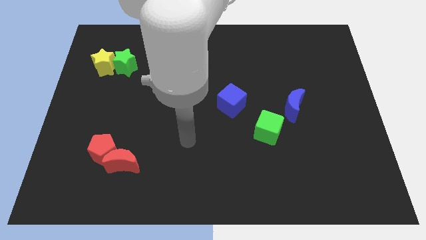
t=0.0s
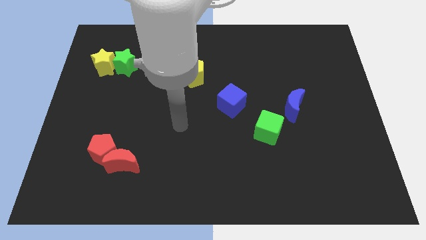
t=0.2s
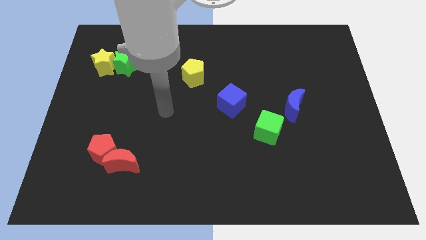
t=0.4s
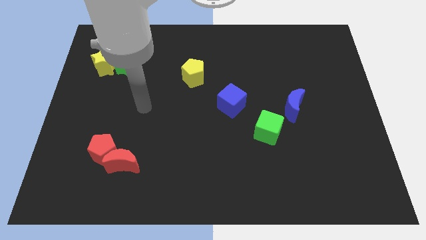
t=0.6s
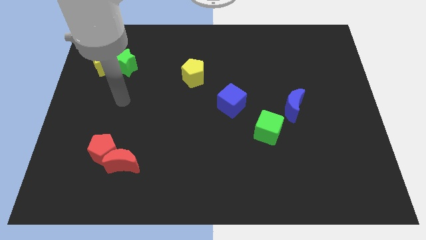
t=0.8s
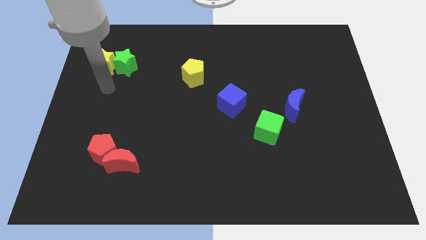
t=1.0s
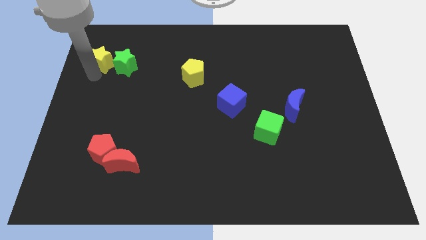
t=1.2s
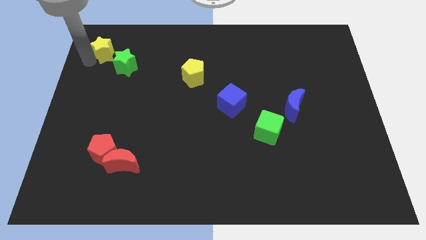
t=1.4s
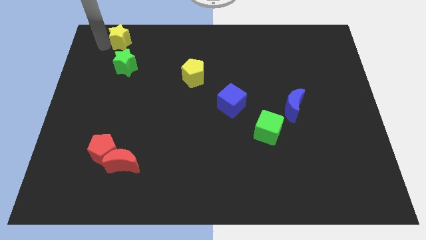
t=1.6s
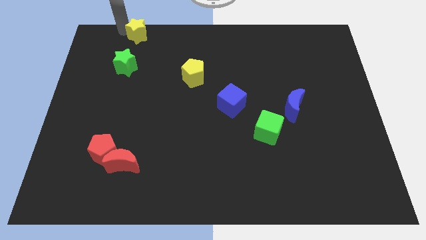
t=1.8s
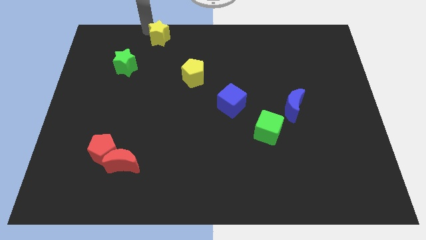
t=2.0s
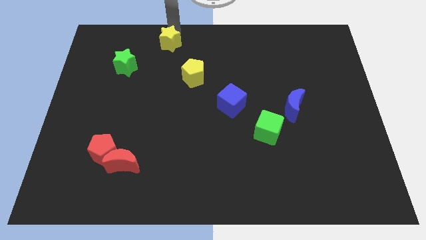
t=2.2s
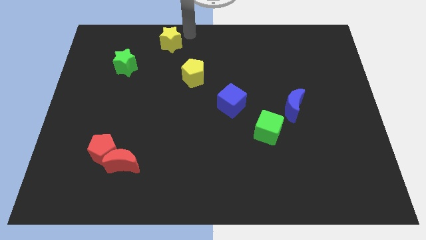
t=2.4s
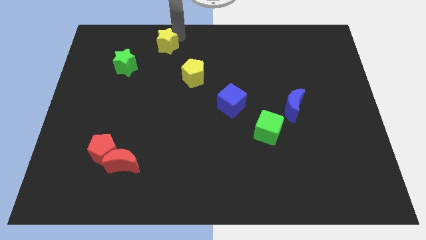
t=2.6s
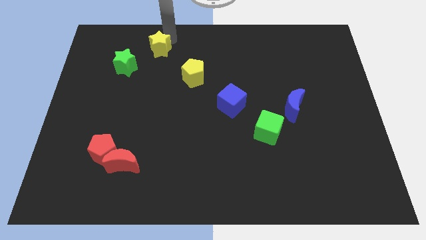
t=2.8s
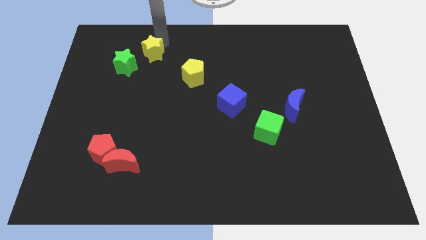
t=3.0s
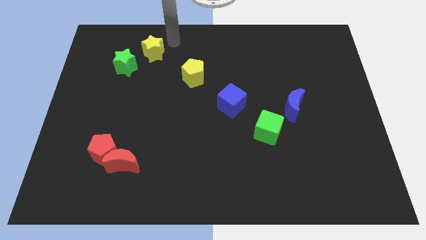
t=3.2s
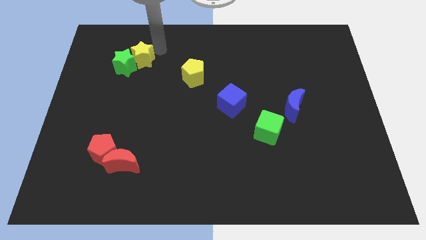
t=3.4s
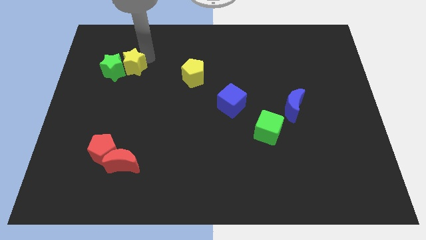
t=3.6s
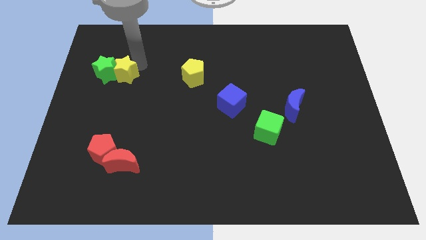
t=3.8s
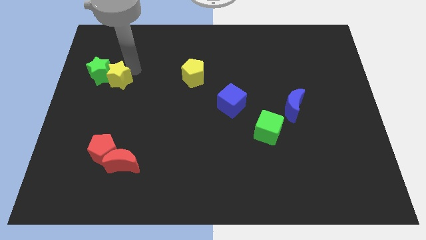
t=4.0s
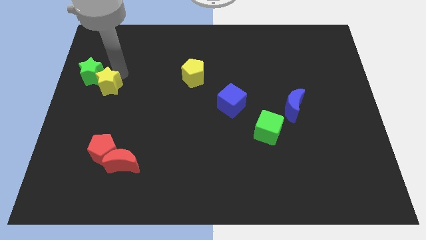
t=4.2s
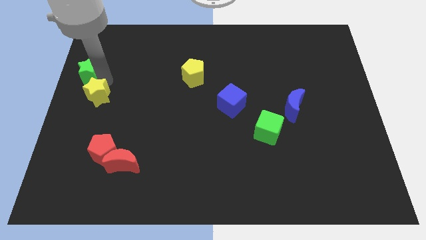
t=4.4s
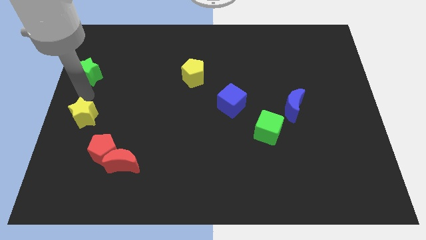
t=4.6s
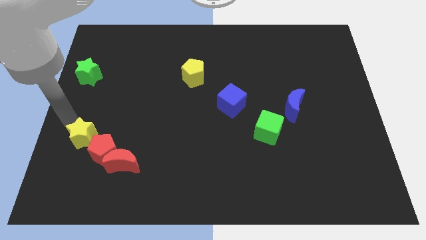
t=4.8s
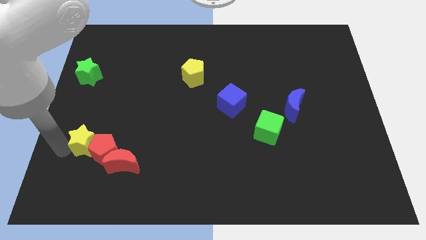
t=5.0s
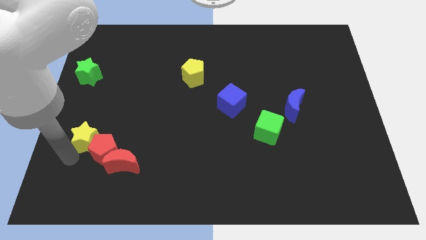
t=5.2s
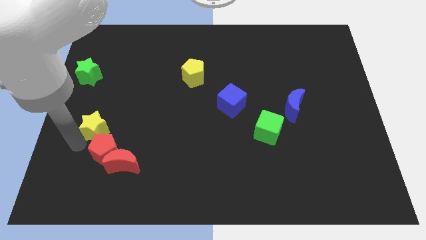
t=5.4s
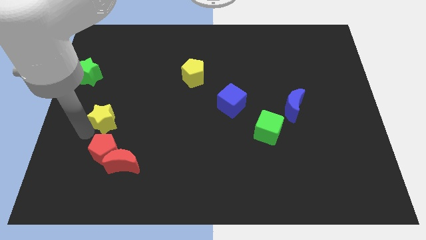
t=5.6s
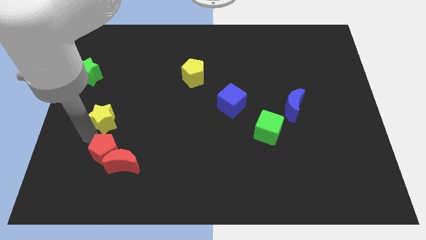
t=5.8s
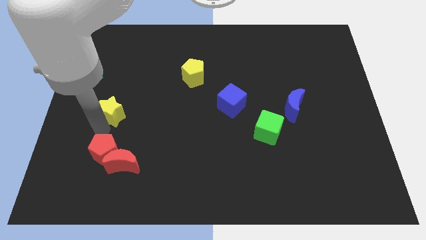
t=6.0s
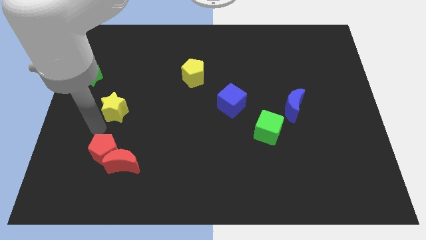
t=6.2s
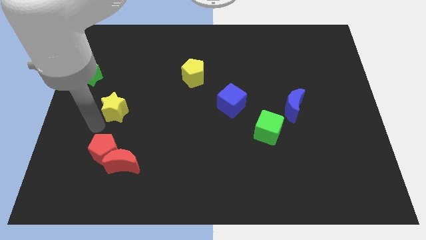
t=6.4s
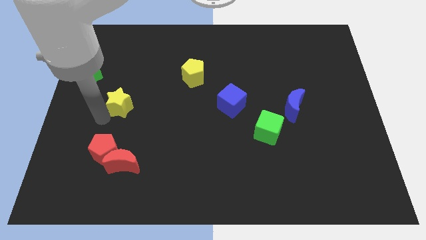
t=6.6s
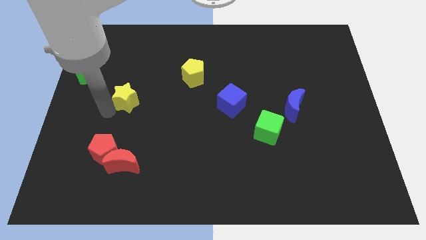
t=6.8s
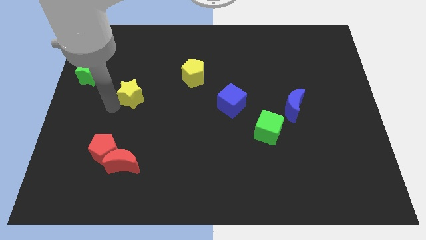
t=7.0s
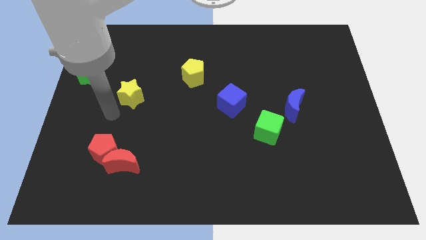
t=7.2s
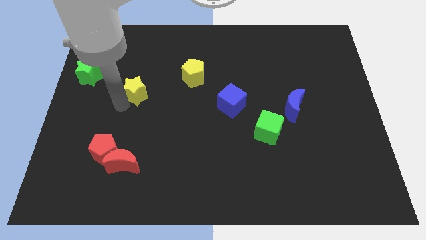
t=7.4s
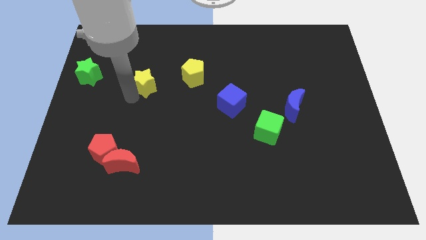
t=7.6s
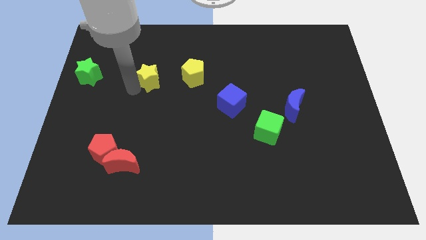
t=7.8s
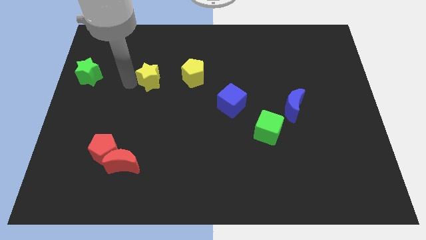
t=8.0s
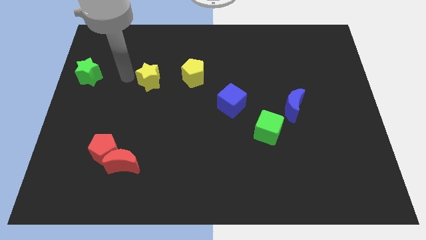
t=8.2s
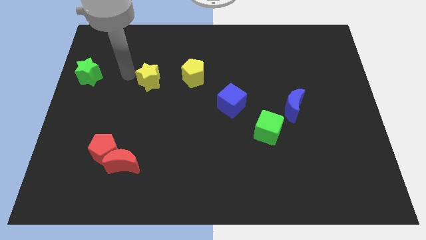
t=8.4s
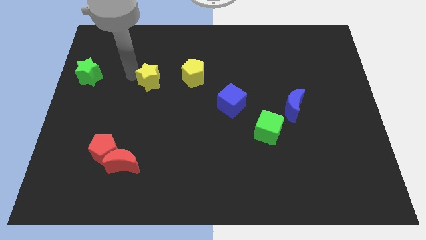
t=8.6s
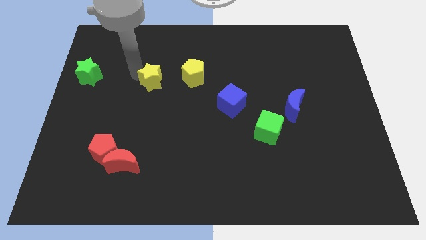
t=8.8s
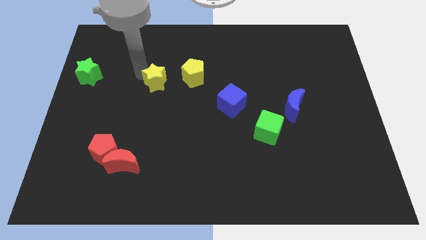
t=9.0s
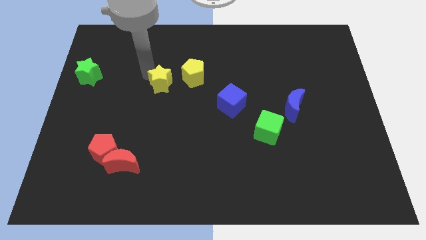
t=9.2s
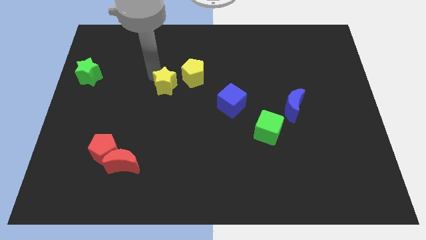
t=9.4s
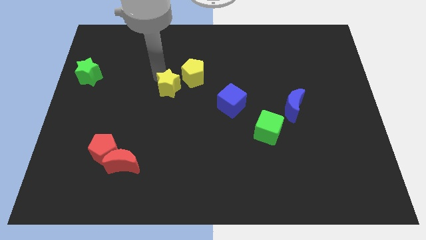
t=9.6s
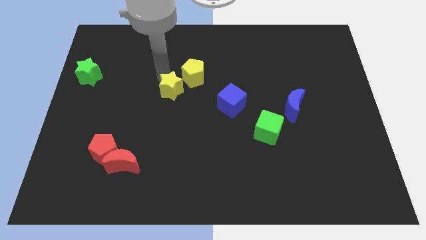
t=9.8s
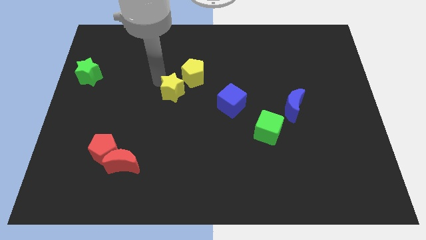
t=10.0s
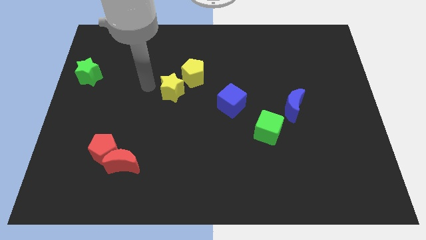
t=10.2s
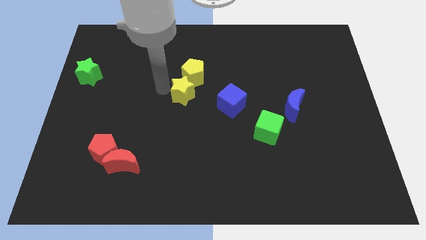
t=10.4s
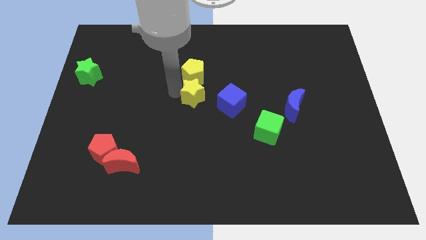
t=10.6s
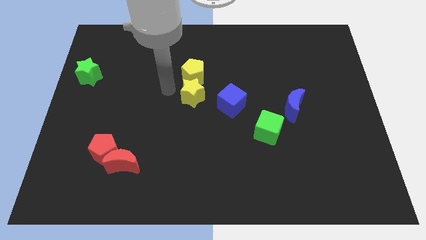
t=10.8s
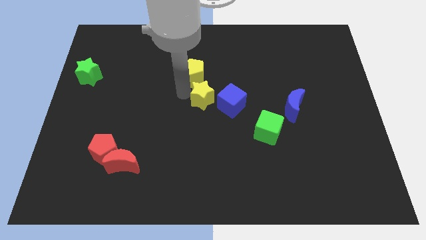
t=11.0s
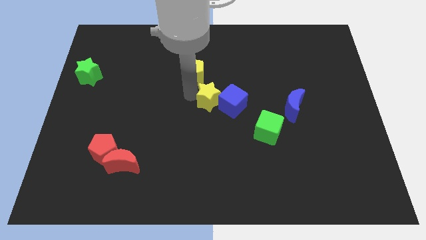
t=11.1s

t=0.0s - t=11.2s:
push the yellow star close to the blue cube

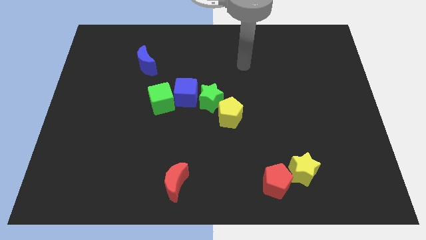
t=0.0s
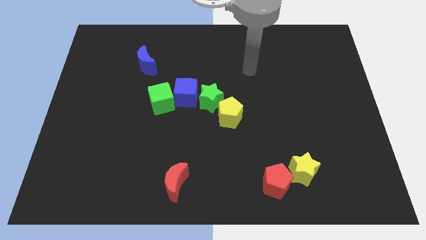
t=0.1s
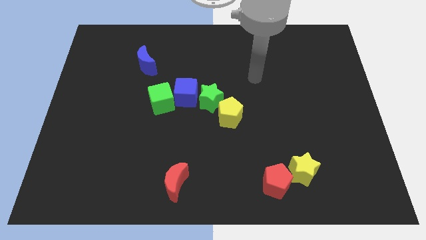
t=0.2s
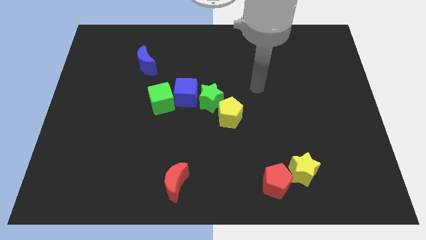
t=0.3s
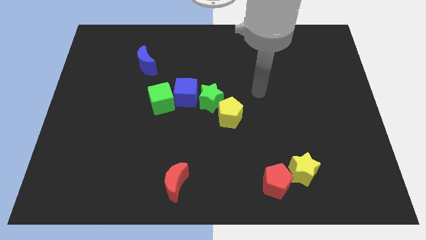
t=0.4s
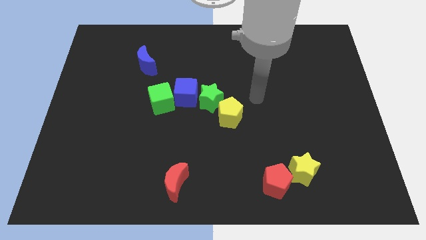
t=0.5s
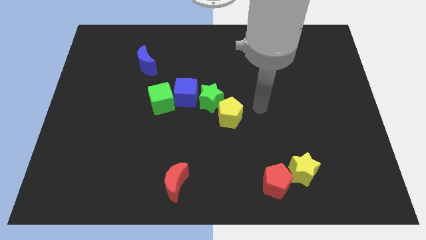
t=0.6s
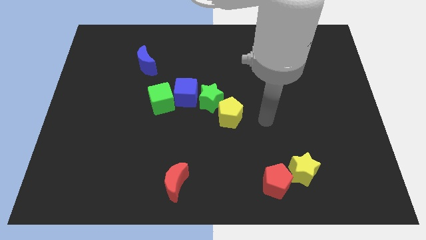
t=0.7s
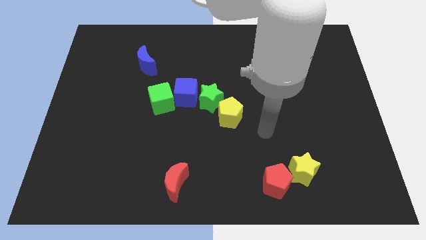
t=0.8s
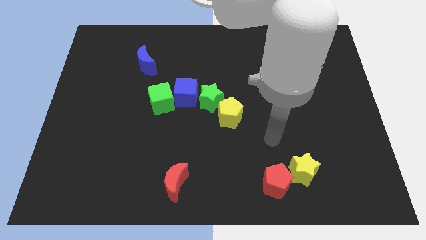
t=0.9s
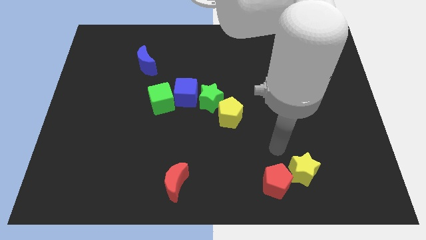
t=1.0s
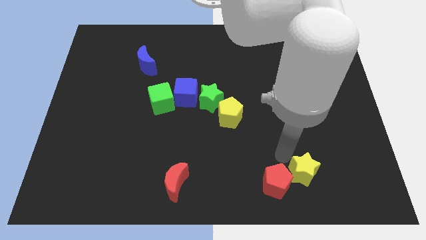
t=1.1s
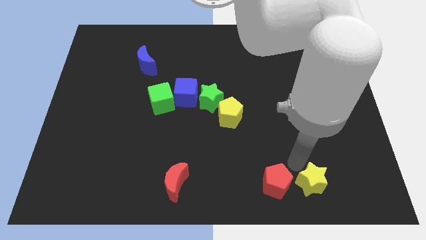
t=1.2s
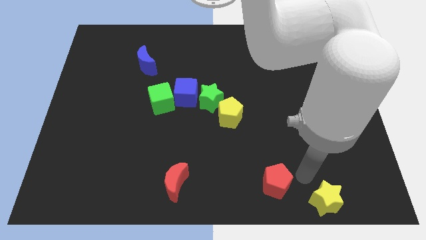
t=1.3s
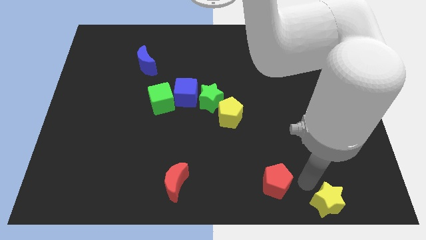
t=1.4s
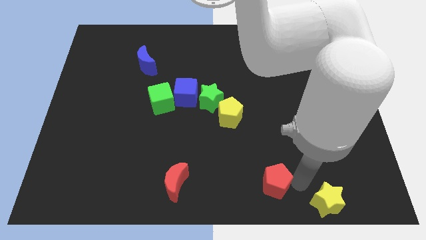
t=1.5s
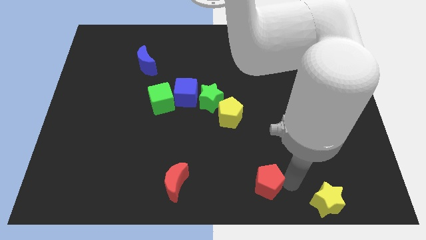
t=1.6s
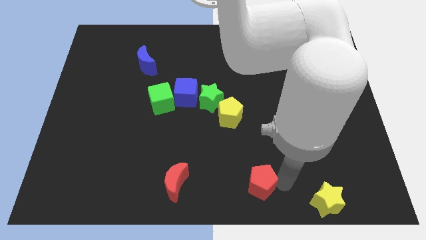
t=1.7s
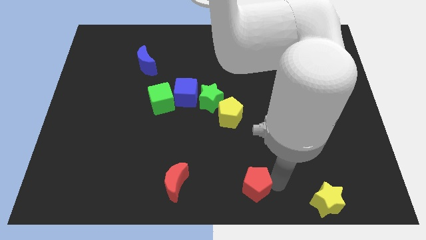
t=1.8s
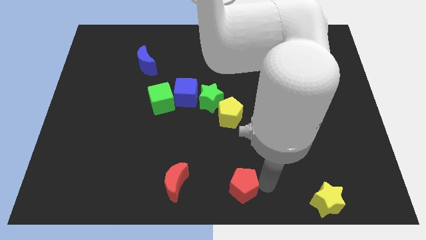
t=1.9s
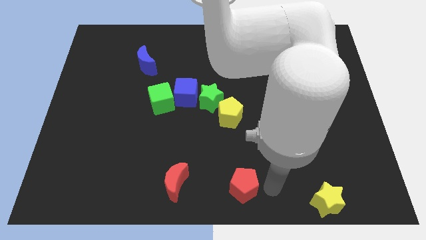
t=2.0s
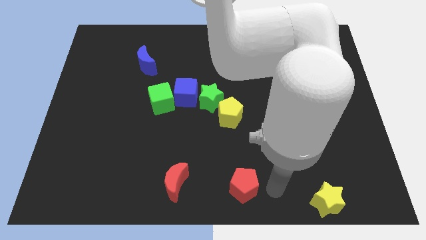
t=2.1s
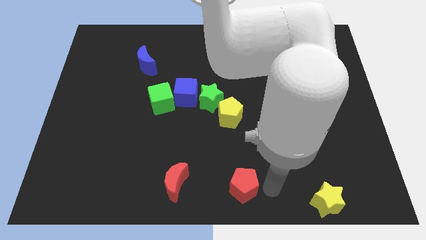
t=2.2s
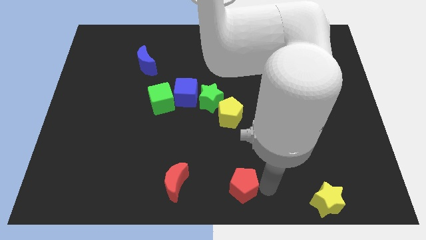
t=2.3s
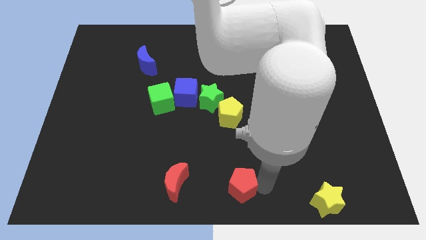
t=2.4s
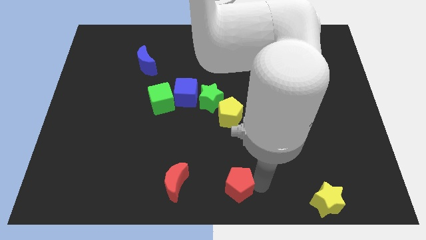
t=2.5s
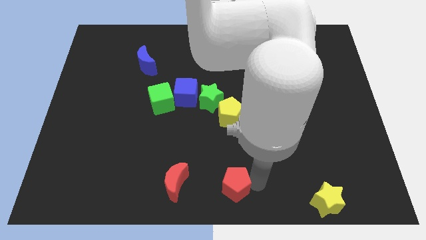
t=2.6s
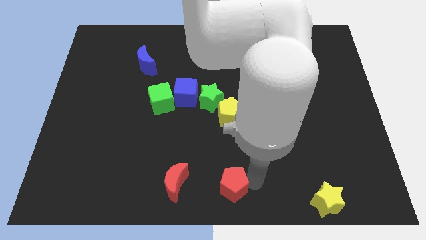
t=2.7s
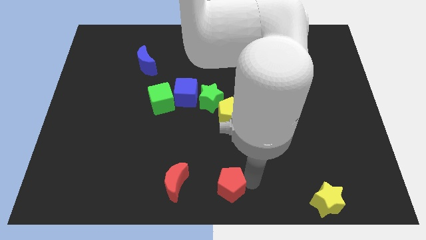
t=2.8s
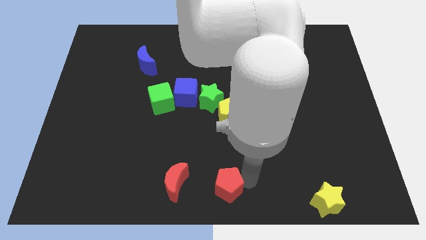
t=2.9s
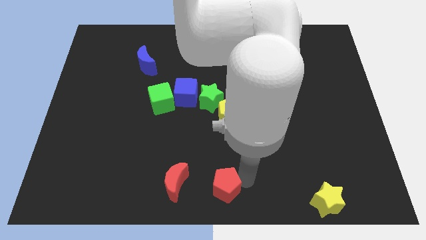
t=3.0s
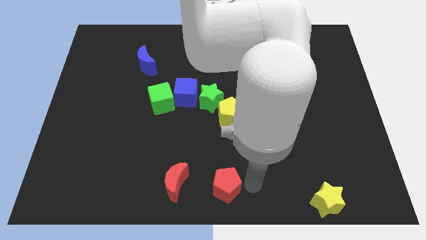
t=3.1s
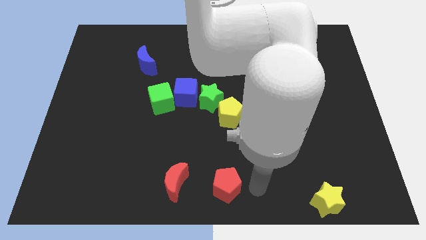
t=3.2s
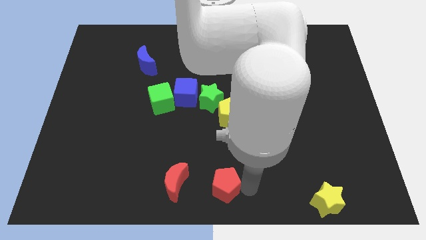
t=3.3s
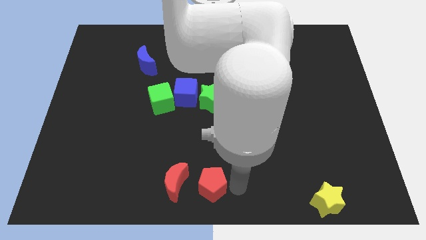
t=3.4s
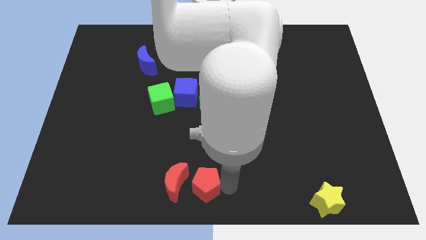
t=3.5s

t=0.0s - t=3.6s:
put the red pentagon next to the red moon
